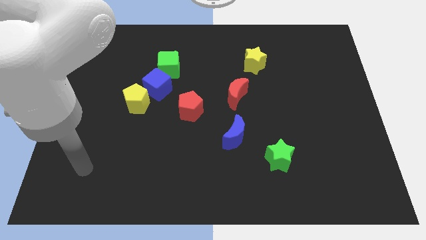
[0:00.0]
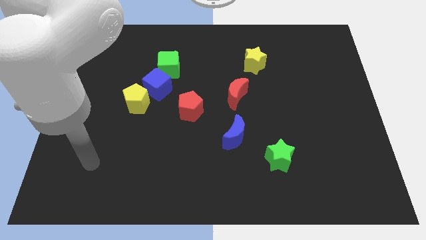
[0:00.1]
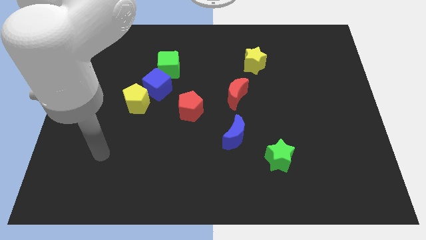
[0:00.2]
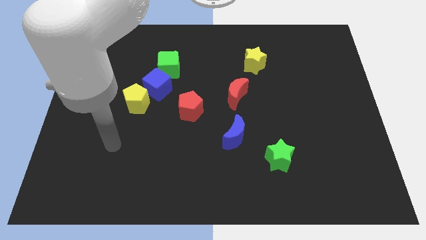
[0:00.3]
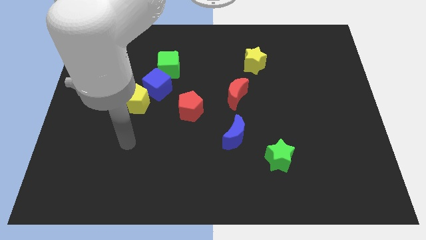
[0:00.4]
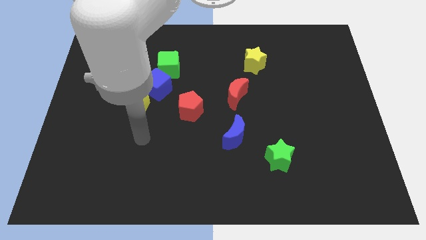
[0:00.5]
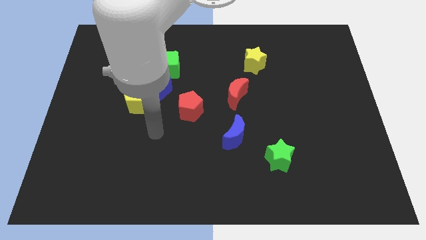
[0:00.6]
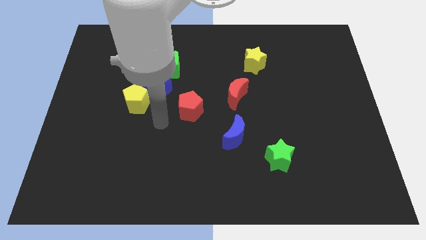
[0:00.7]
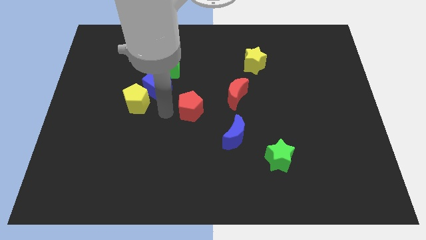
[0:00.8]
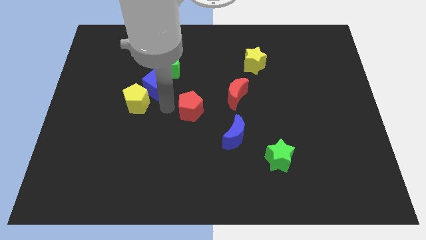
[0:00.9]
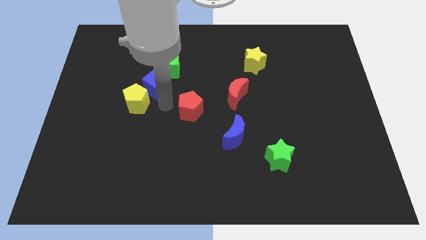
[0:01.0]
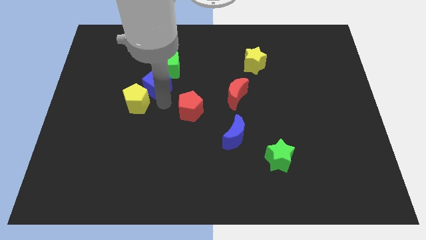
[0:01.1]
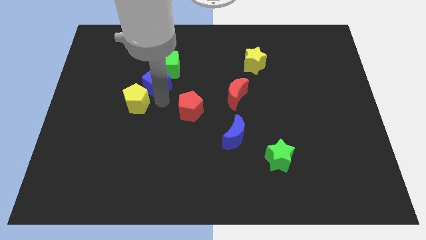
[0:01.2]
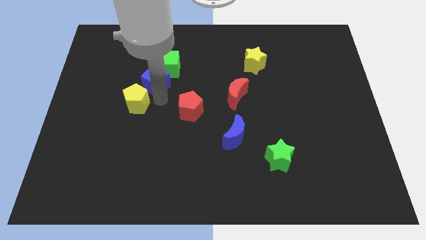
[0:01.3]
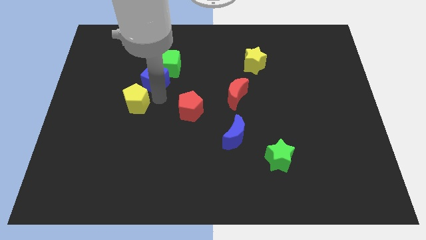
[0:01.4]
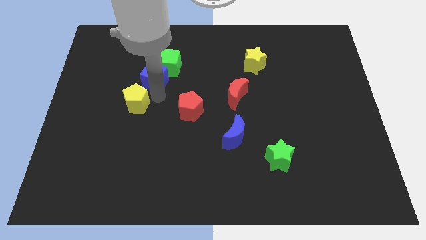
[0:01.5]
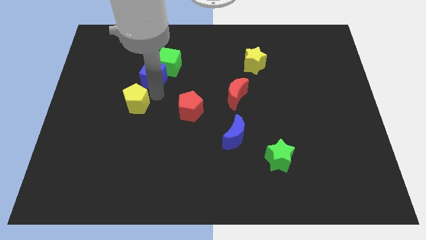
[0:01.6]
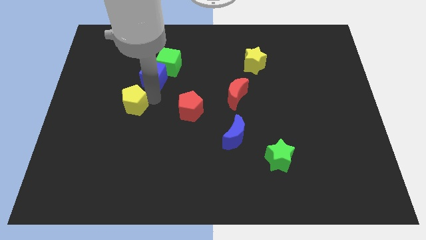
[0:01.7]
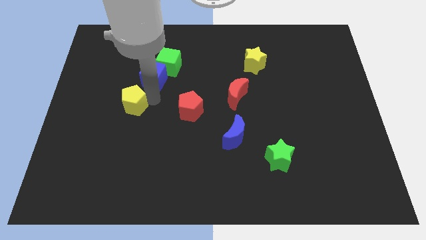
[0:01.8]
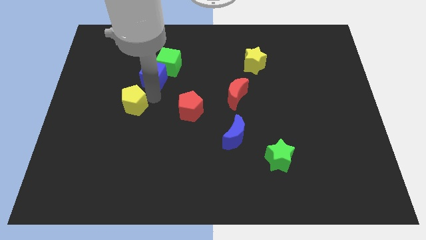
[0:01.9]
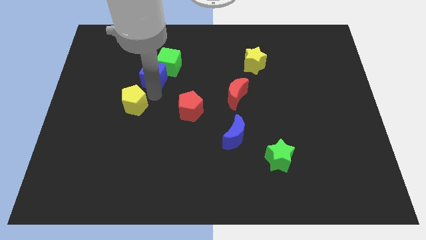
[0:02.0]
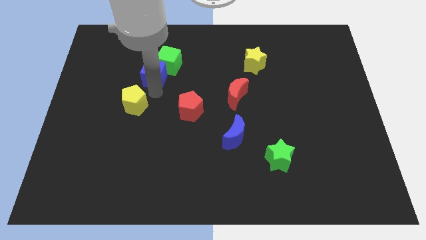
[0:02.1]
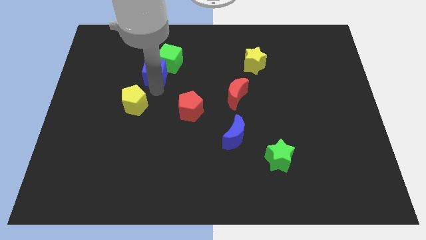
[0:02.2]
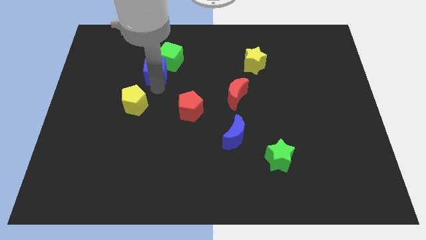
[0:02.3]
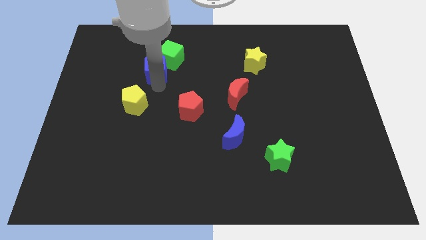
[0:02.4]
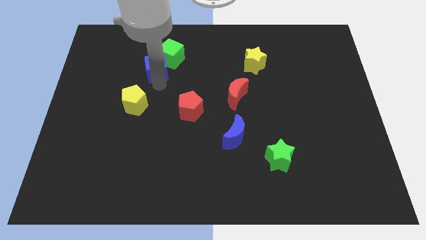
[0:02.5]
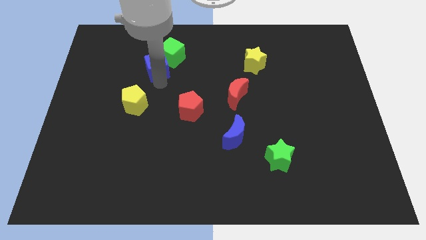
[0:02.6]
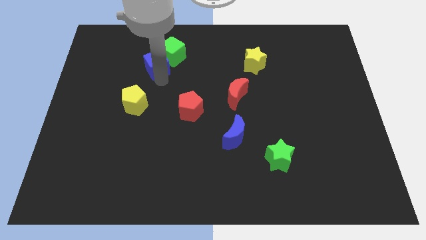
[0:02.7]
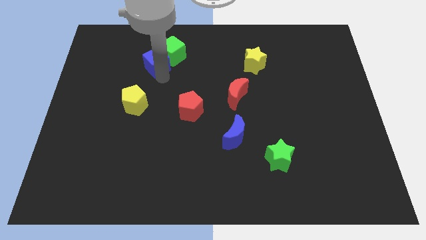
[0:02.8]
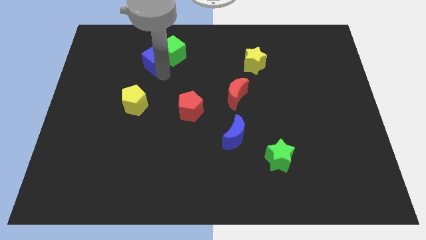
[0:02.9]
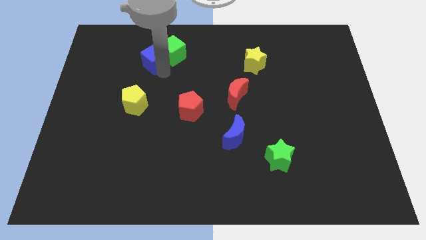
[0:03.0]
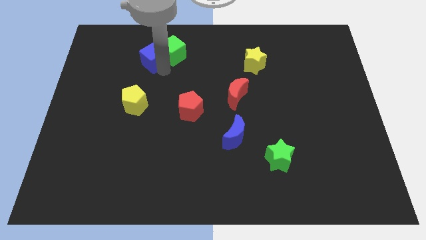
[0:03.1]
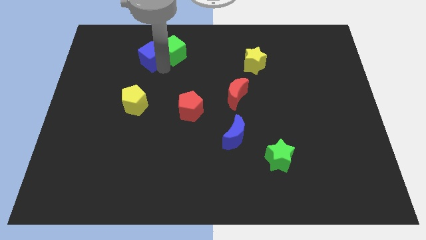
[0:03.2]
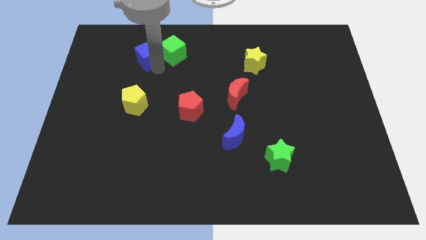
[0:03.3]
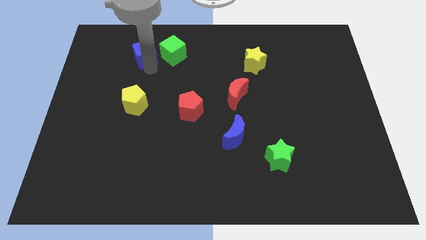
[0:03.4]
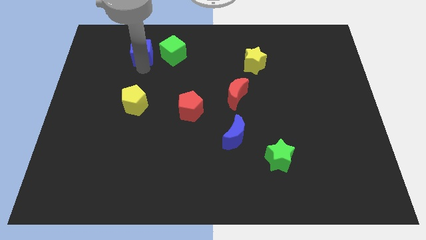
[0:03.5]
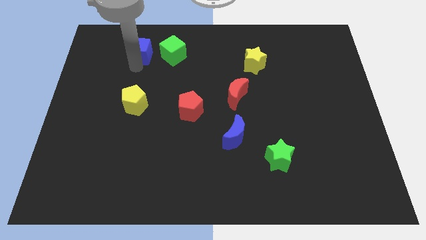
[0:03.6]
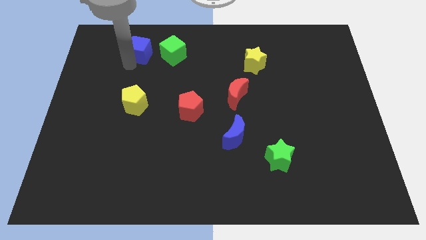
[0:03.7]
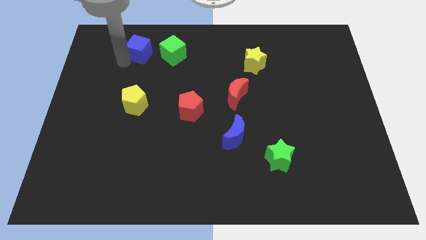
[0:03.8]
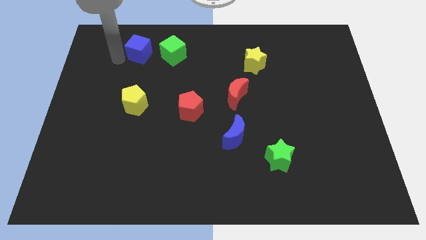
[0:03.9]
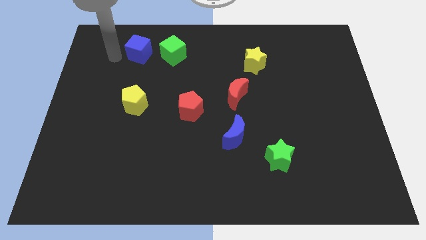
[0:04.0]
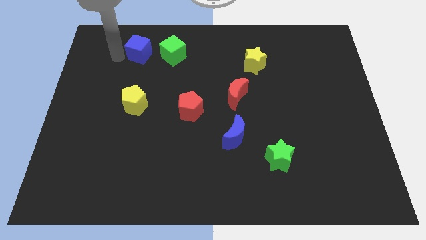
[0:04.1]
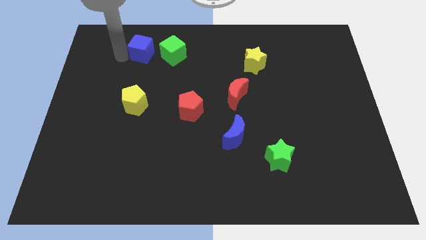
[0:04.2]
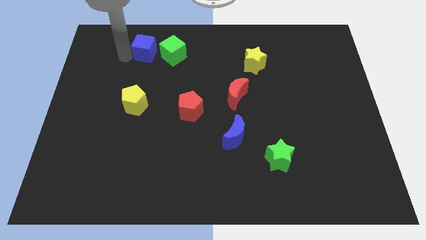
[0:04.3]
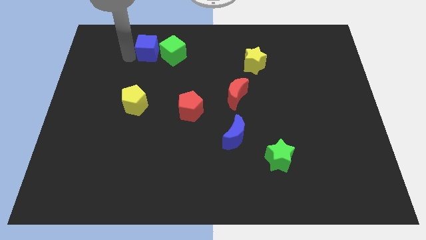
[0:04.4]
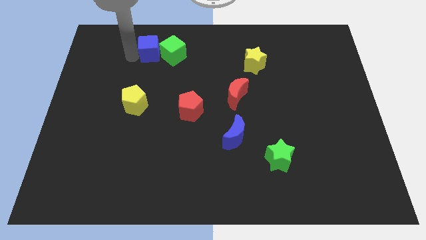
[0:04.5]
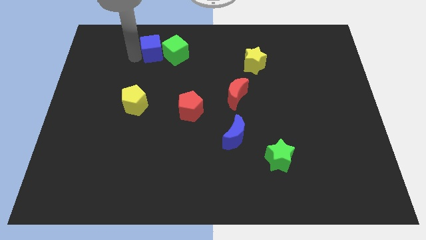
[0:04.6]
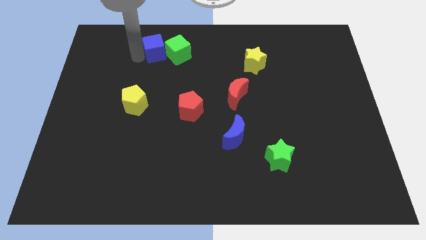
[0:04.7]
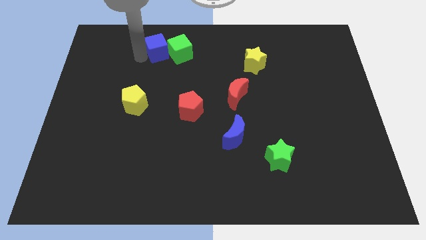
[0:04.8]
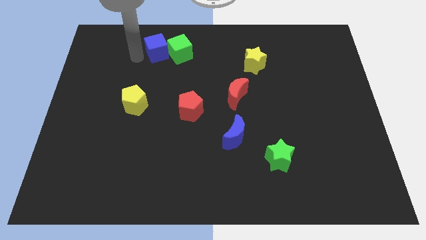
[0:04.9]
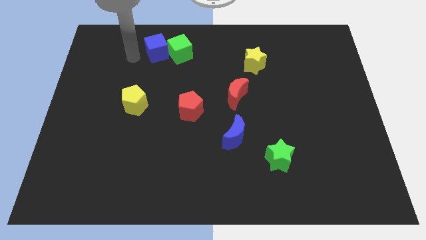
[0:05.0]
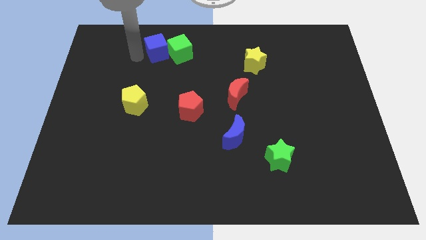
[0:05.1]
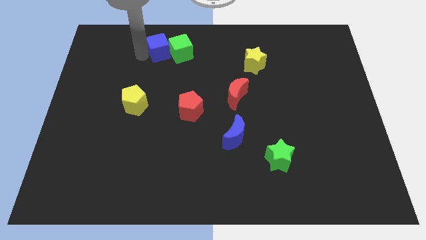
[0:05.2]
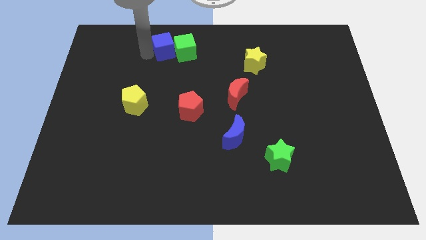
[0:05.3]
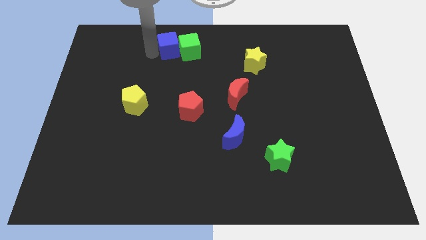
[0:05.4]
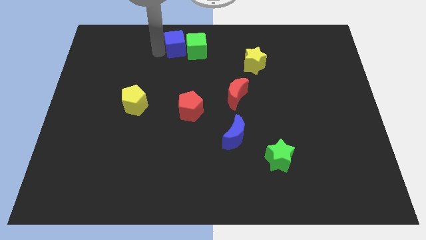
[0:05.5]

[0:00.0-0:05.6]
move the blue cube to the towards your base

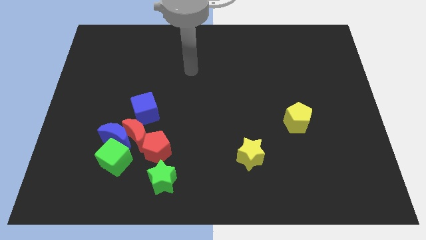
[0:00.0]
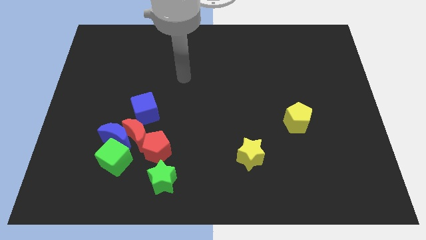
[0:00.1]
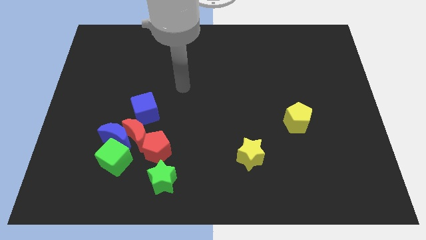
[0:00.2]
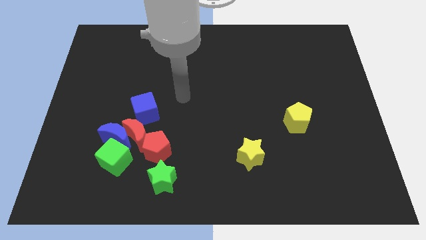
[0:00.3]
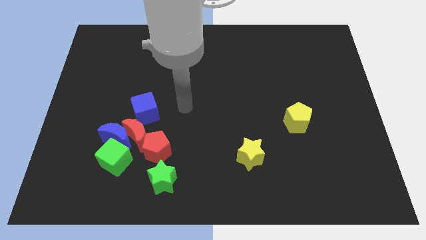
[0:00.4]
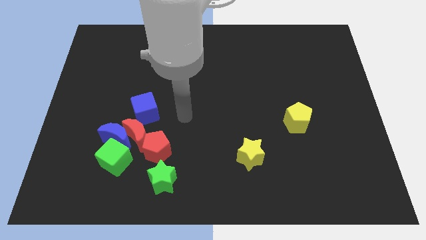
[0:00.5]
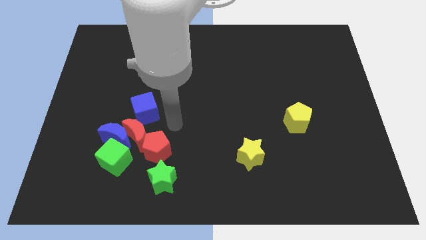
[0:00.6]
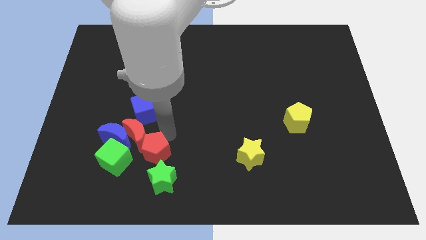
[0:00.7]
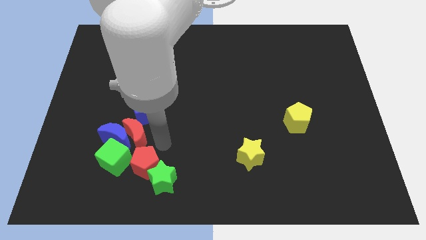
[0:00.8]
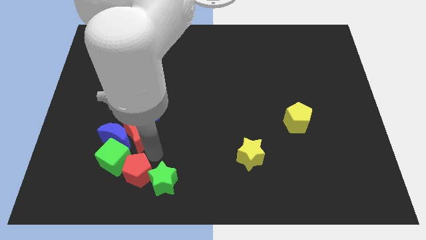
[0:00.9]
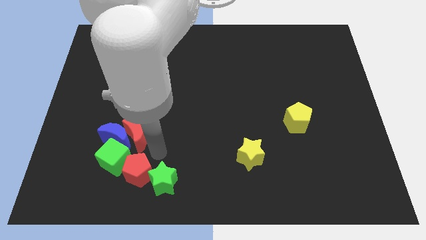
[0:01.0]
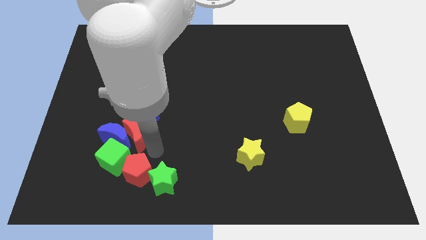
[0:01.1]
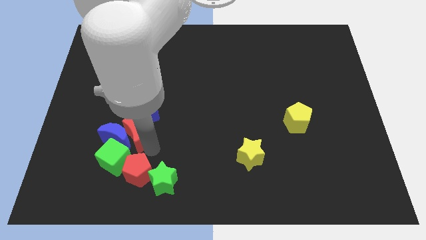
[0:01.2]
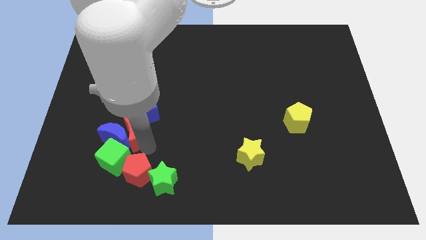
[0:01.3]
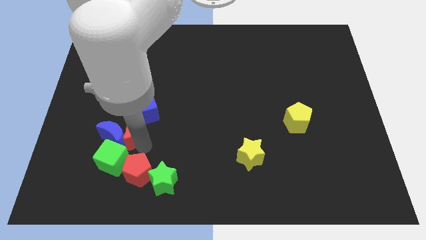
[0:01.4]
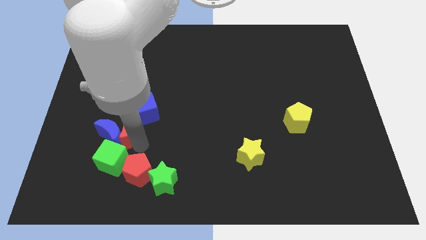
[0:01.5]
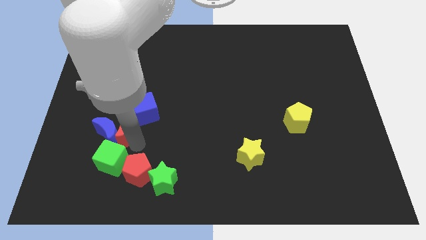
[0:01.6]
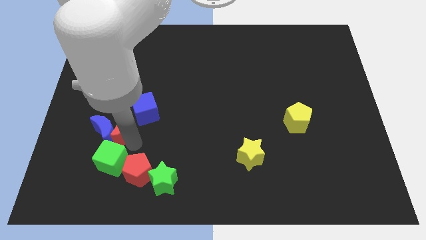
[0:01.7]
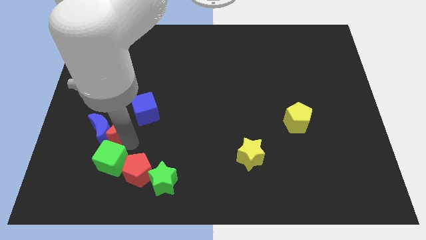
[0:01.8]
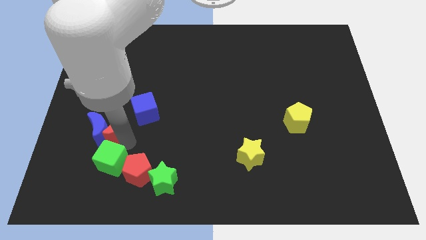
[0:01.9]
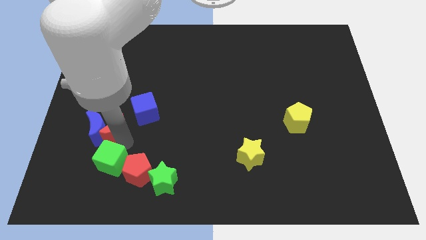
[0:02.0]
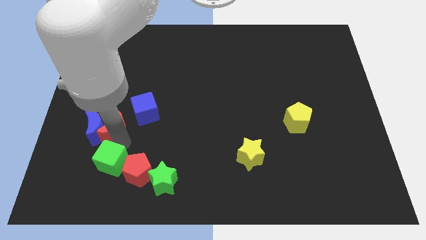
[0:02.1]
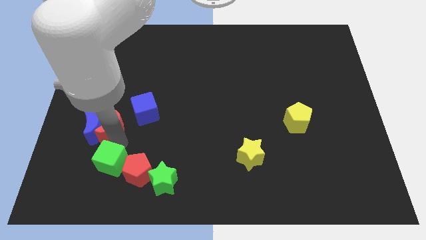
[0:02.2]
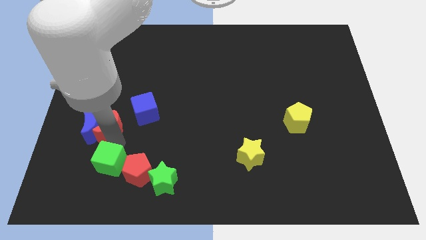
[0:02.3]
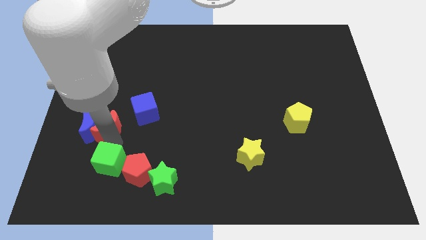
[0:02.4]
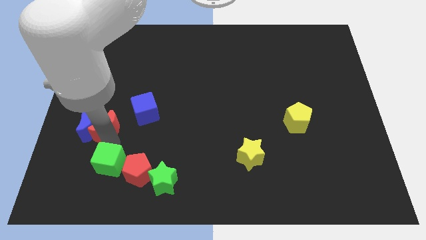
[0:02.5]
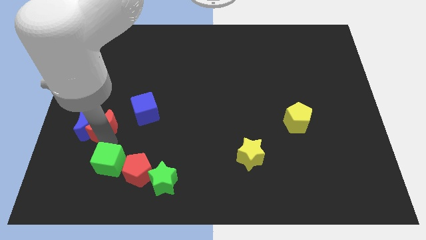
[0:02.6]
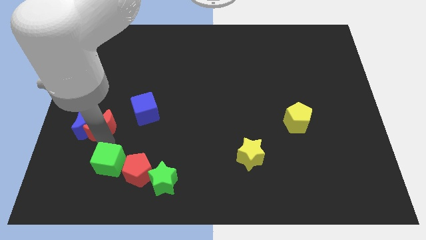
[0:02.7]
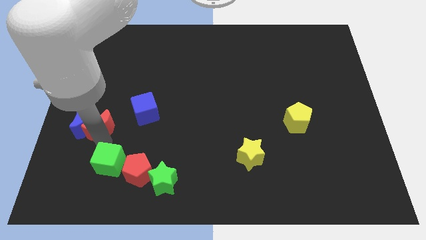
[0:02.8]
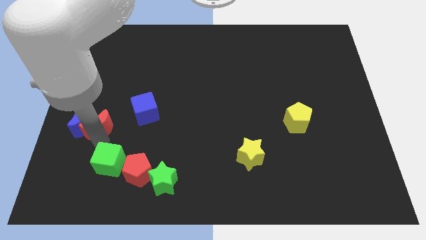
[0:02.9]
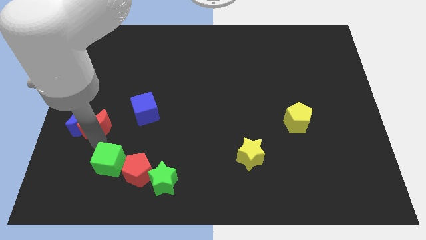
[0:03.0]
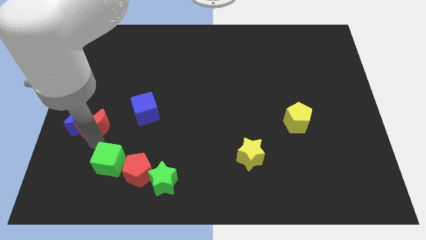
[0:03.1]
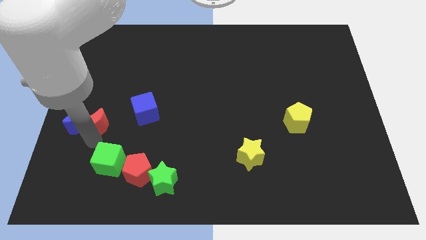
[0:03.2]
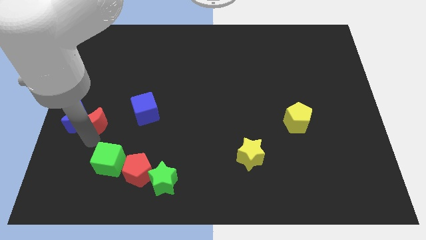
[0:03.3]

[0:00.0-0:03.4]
put the red moon to the left side of the board
